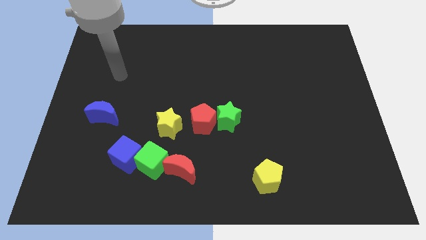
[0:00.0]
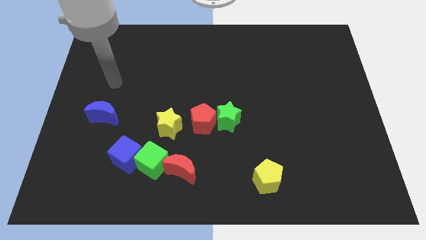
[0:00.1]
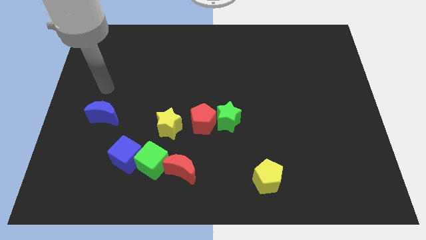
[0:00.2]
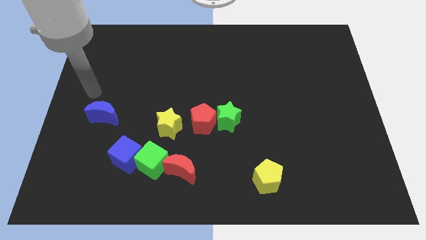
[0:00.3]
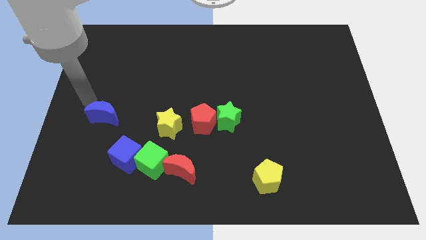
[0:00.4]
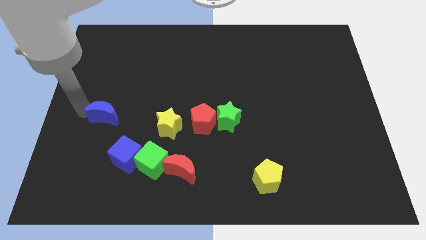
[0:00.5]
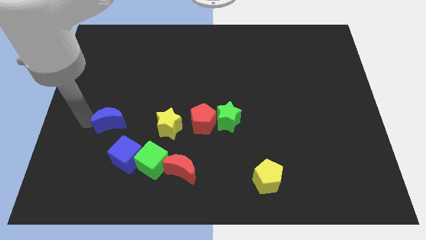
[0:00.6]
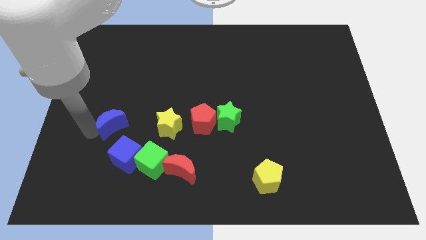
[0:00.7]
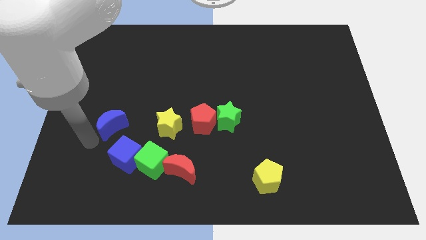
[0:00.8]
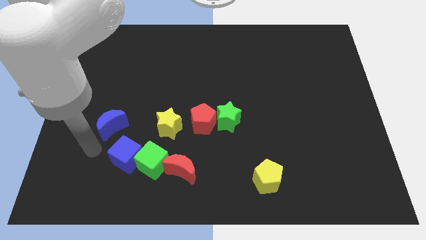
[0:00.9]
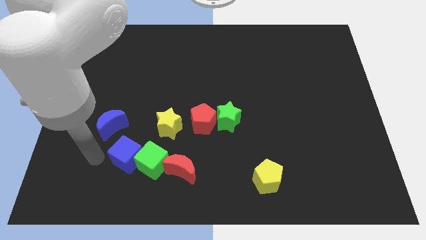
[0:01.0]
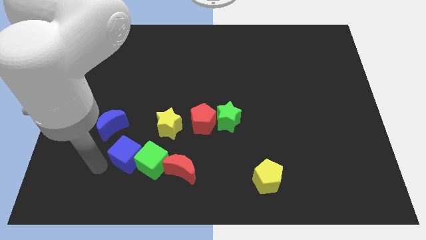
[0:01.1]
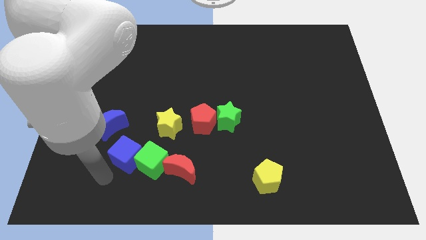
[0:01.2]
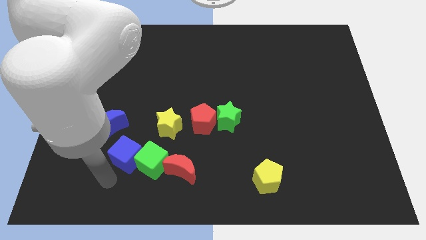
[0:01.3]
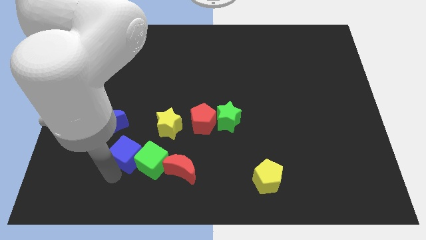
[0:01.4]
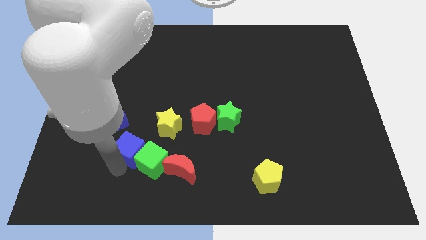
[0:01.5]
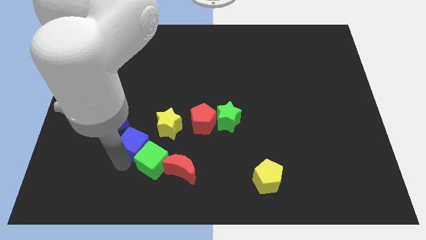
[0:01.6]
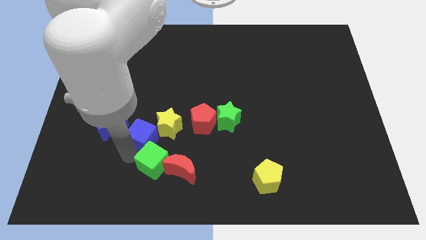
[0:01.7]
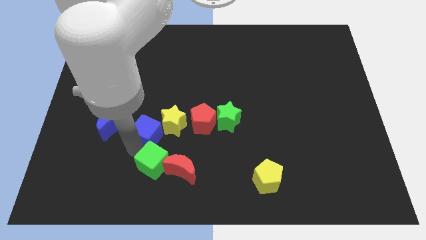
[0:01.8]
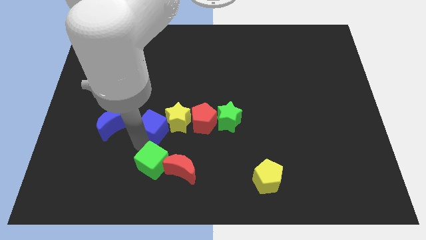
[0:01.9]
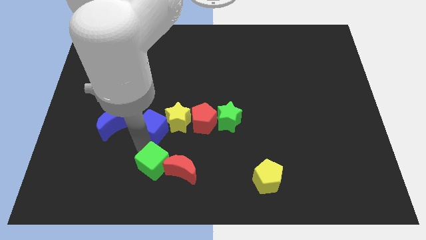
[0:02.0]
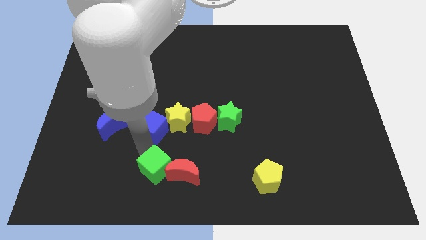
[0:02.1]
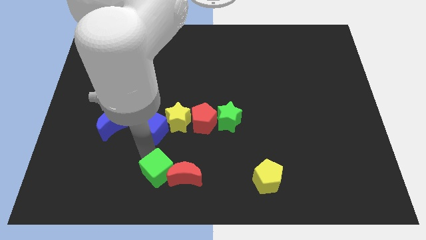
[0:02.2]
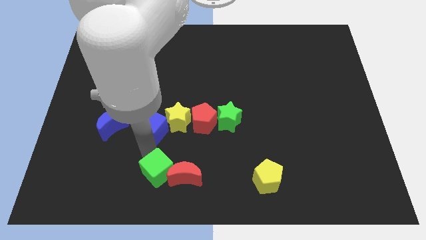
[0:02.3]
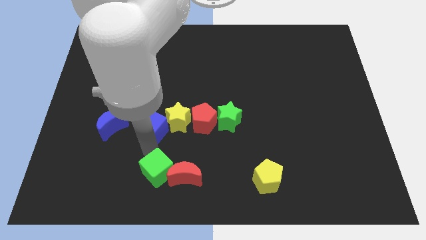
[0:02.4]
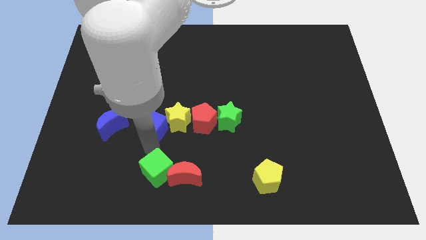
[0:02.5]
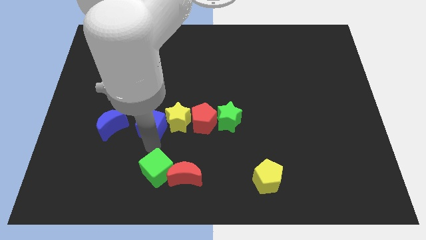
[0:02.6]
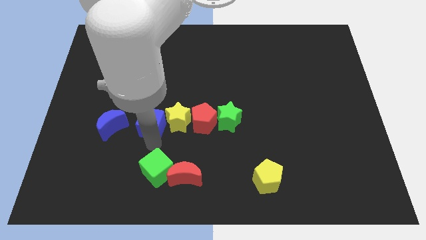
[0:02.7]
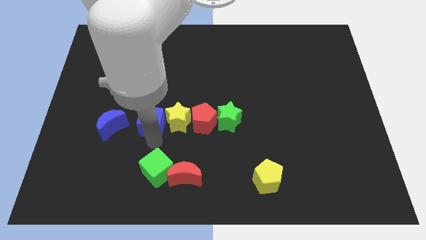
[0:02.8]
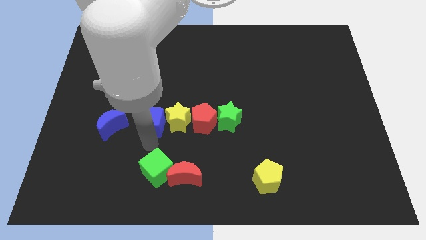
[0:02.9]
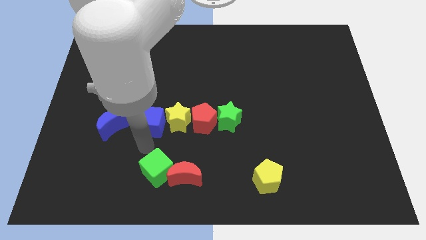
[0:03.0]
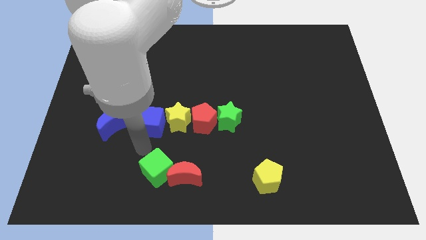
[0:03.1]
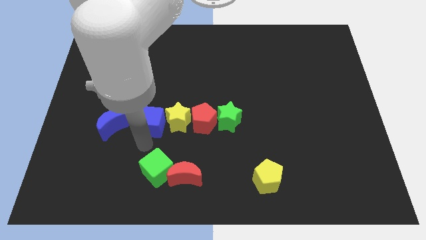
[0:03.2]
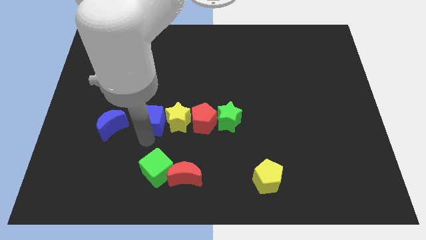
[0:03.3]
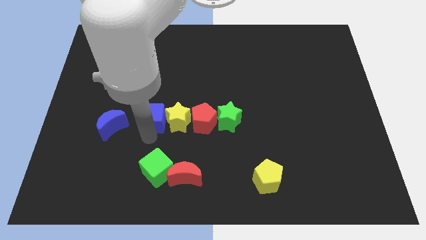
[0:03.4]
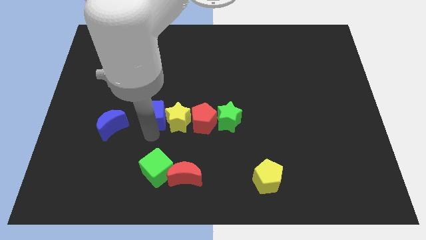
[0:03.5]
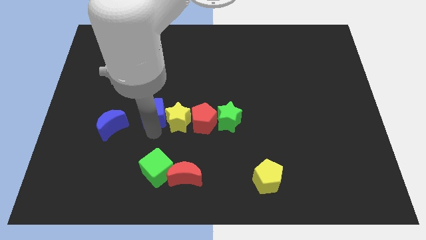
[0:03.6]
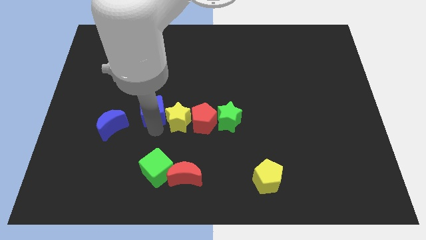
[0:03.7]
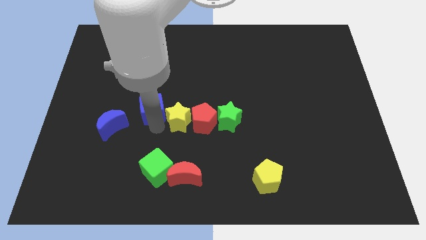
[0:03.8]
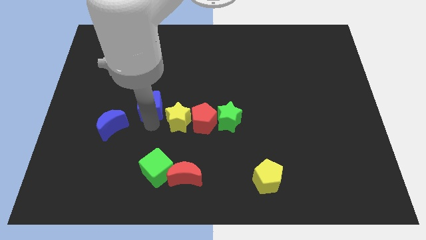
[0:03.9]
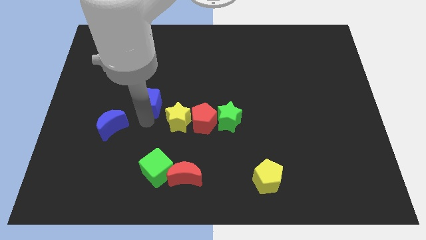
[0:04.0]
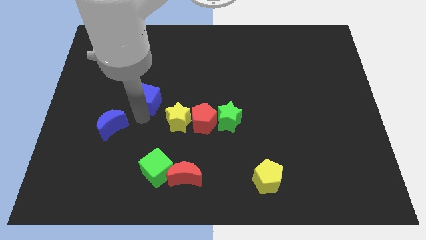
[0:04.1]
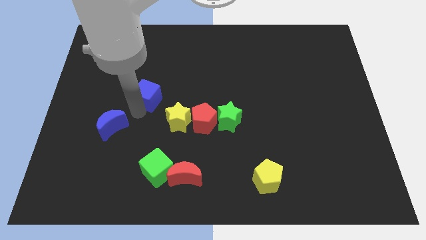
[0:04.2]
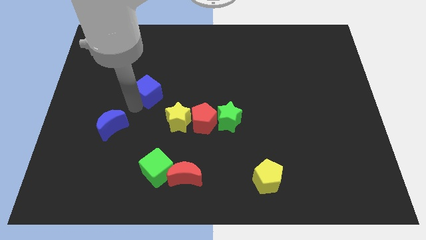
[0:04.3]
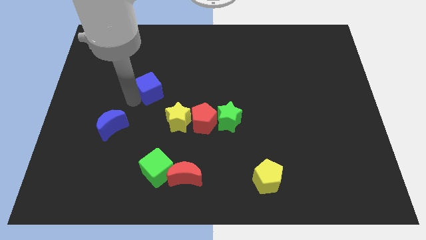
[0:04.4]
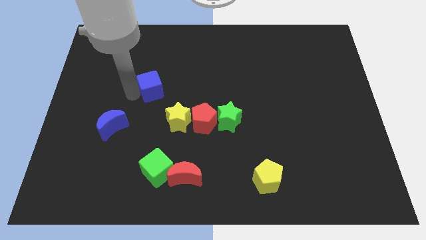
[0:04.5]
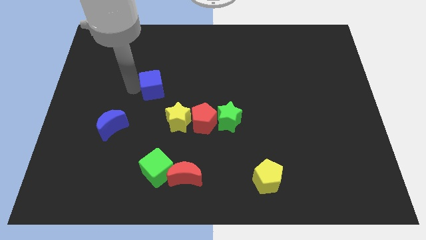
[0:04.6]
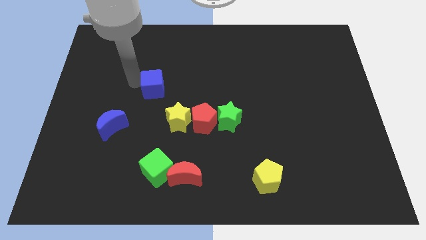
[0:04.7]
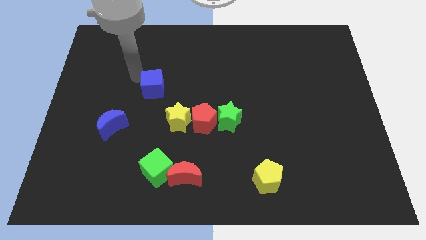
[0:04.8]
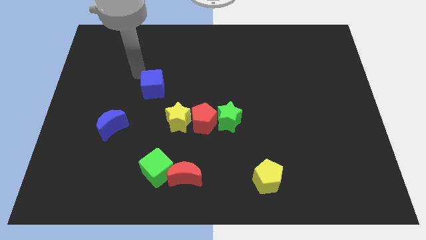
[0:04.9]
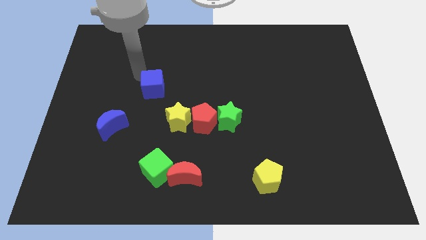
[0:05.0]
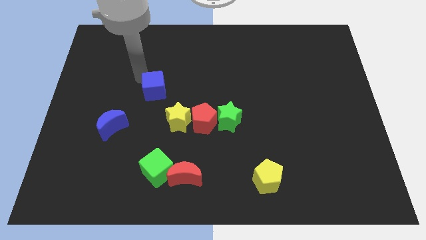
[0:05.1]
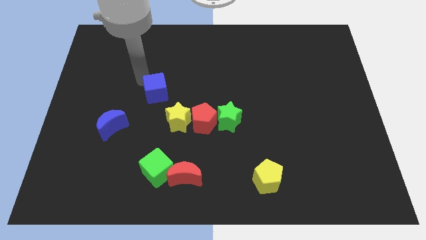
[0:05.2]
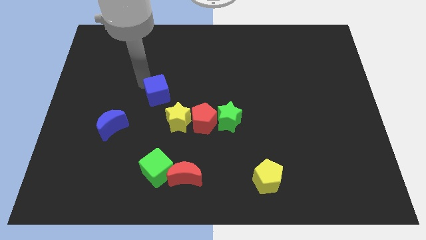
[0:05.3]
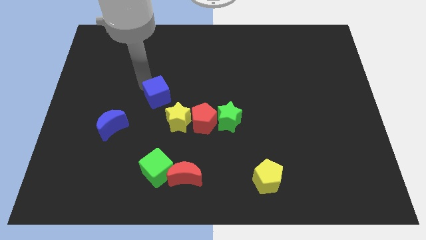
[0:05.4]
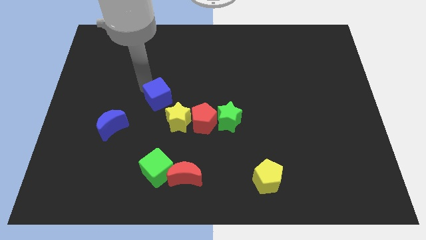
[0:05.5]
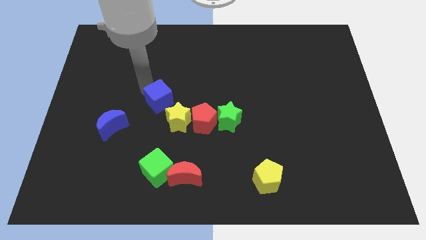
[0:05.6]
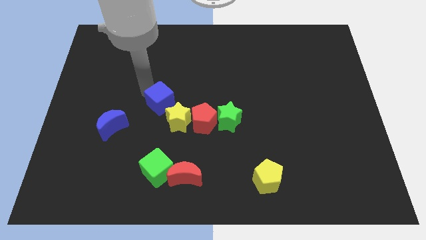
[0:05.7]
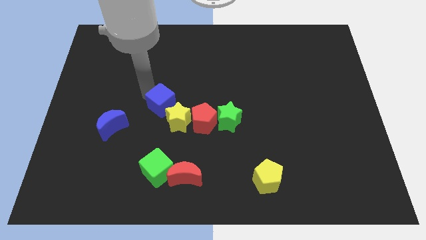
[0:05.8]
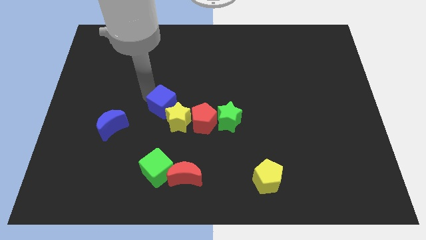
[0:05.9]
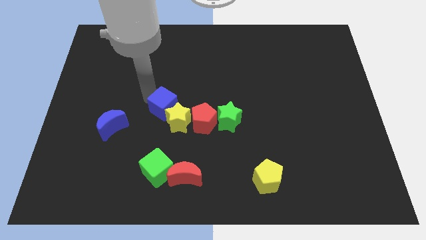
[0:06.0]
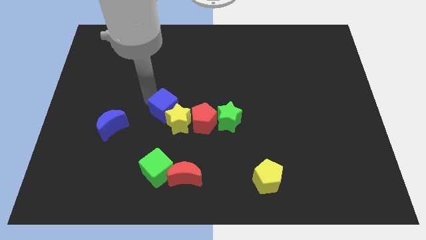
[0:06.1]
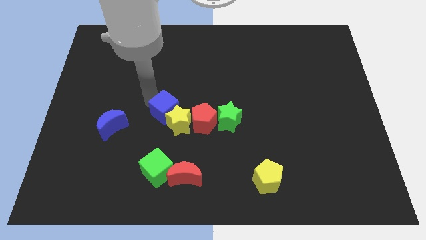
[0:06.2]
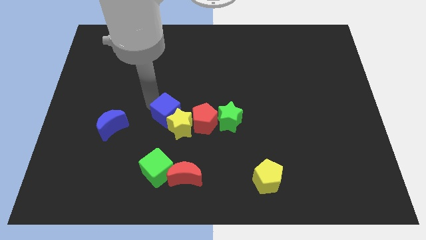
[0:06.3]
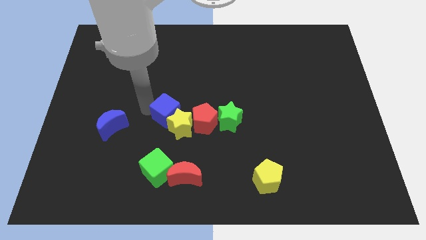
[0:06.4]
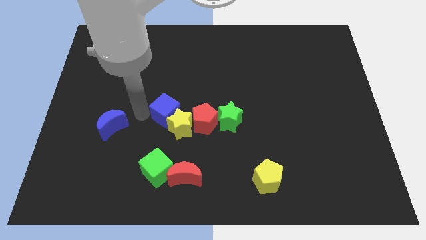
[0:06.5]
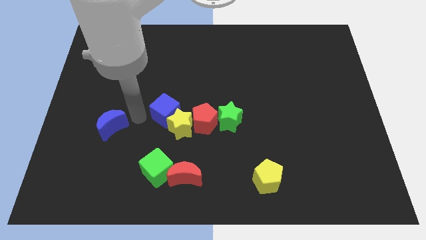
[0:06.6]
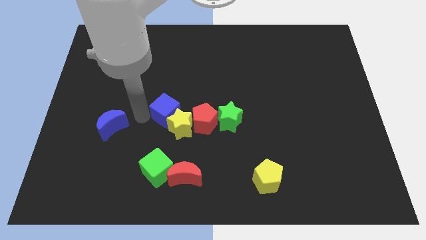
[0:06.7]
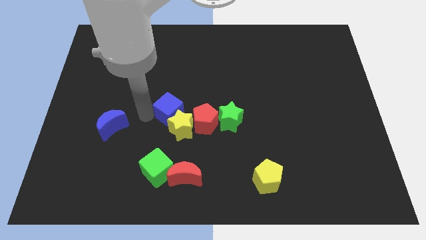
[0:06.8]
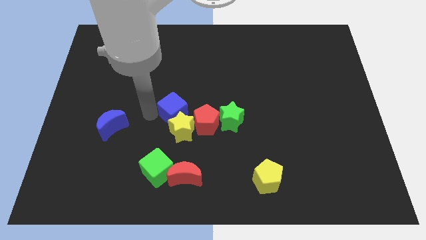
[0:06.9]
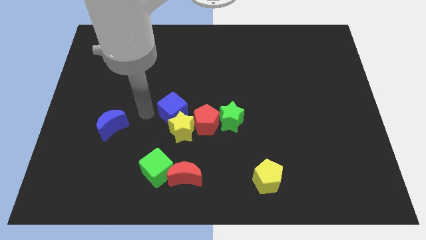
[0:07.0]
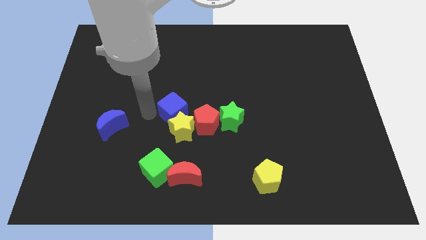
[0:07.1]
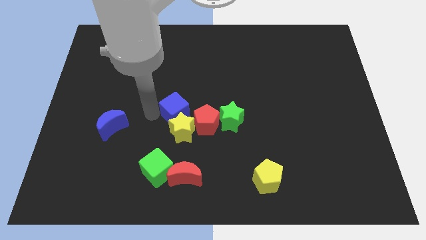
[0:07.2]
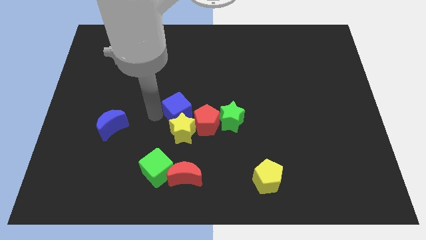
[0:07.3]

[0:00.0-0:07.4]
move the blue cube to the top right of the yellow star

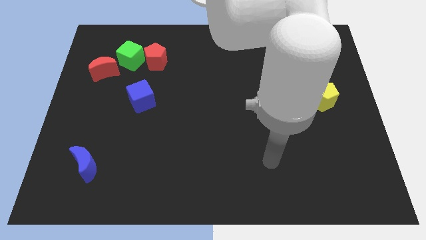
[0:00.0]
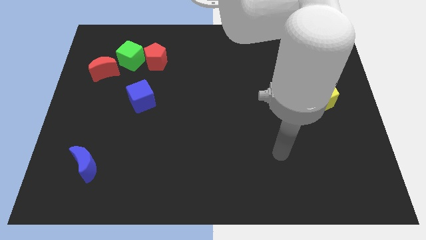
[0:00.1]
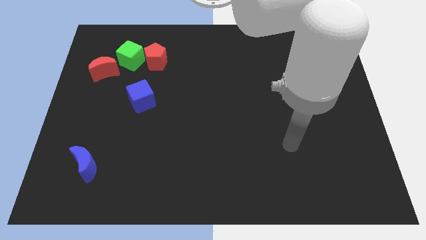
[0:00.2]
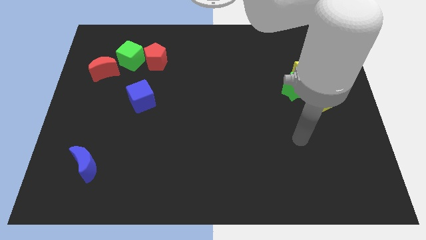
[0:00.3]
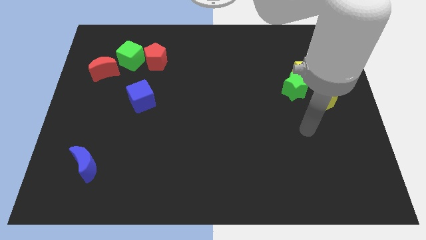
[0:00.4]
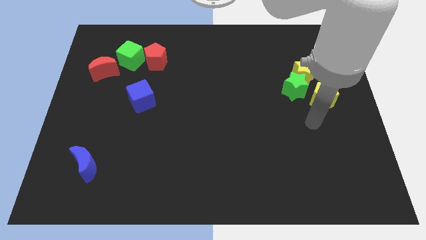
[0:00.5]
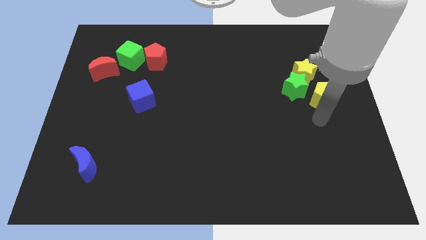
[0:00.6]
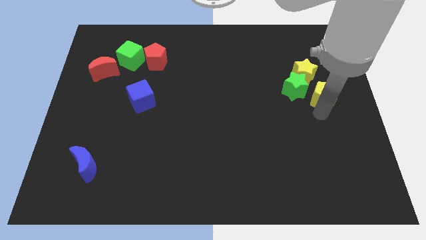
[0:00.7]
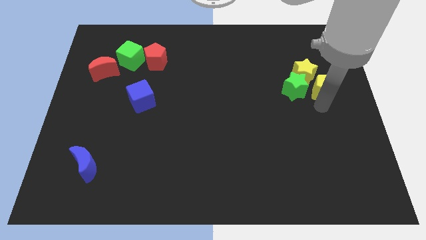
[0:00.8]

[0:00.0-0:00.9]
put the yellow pentagon to the top right side of the green star
